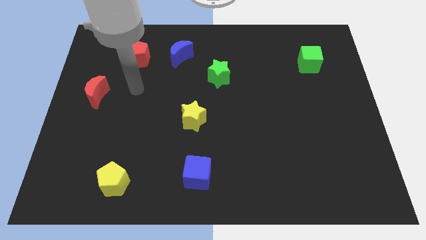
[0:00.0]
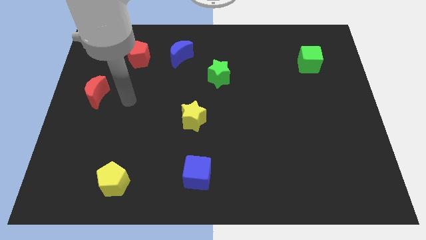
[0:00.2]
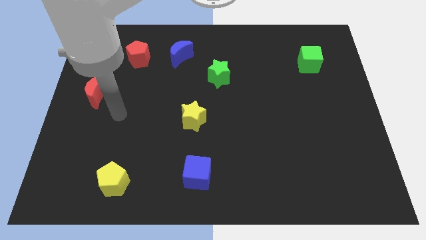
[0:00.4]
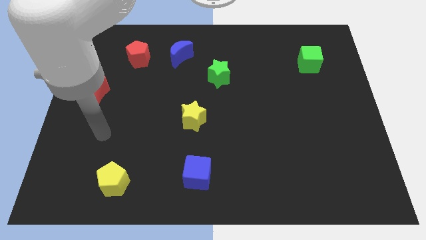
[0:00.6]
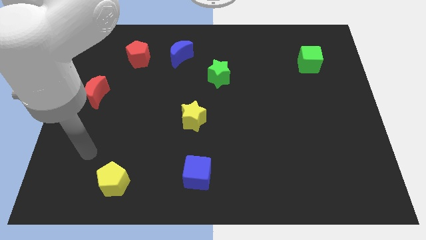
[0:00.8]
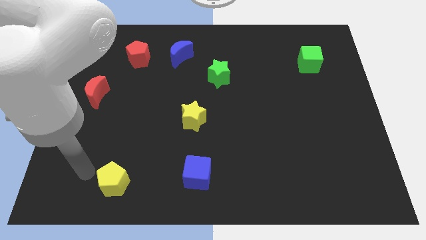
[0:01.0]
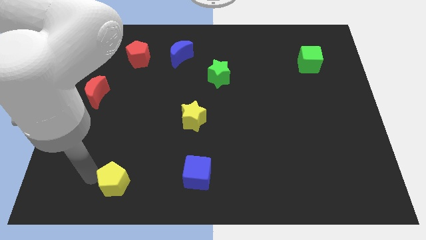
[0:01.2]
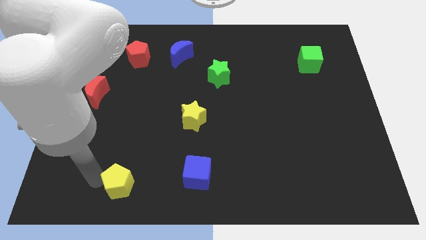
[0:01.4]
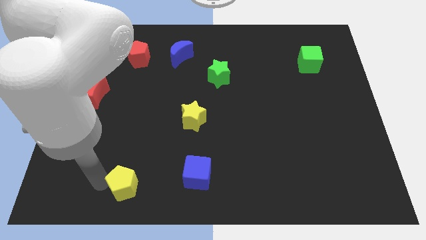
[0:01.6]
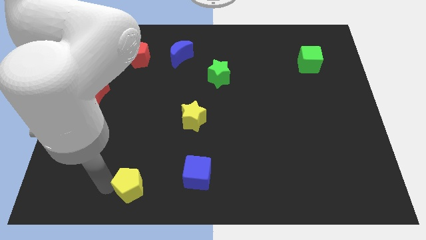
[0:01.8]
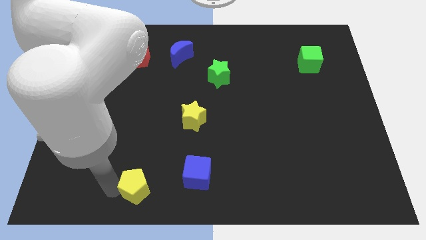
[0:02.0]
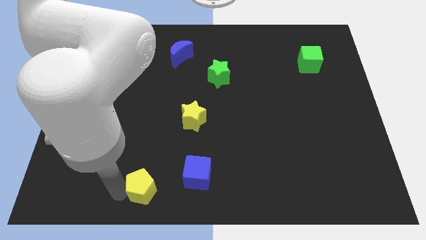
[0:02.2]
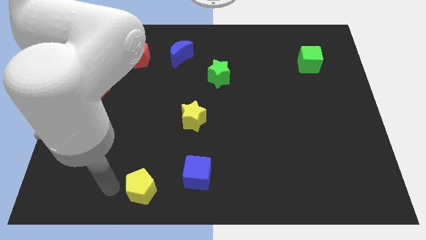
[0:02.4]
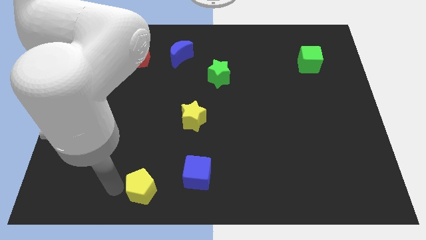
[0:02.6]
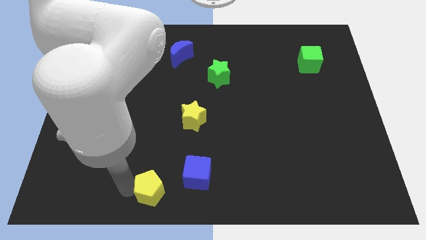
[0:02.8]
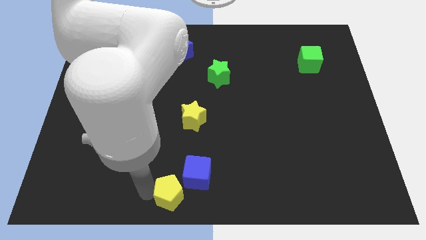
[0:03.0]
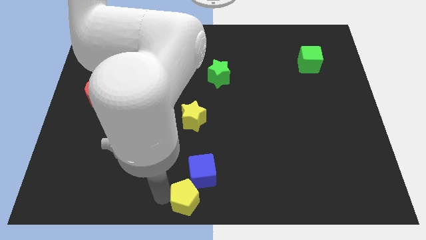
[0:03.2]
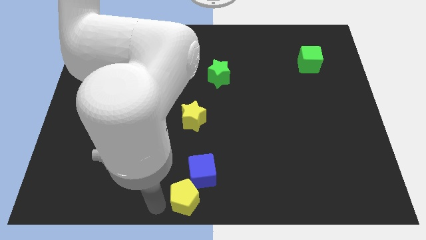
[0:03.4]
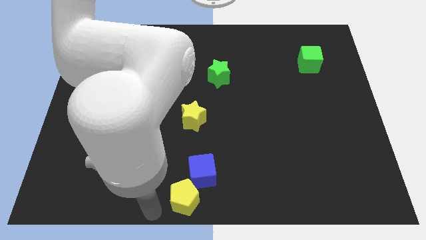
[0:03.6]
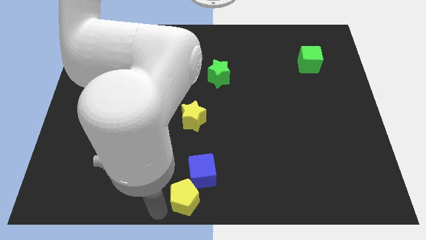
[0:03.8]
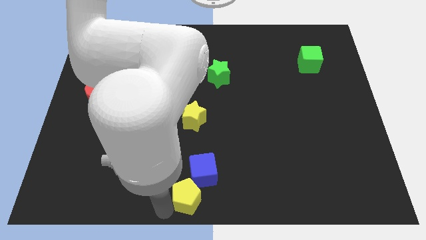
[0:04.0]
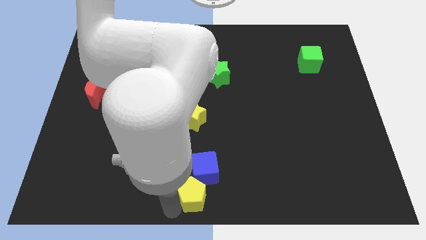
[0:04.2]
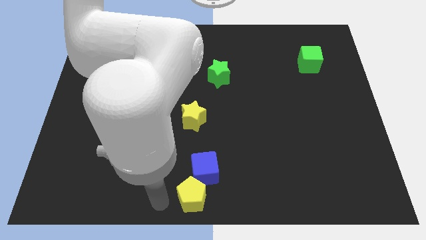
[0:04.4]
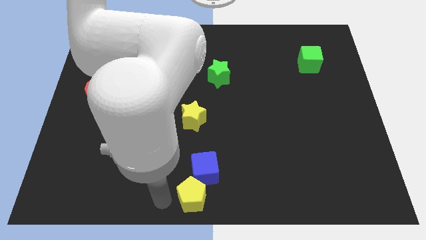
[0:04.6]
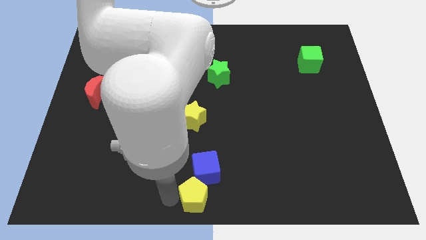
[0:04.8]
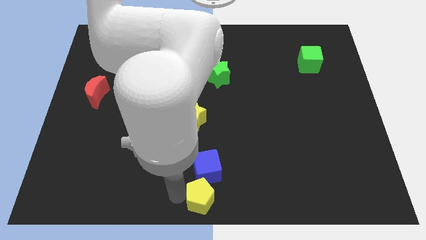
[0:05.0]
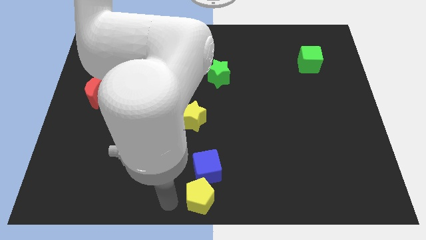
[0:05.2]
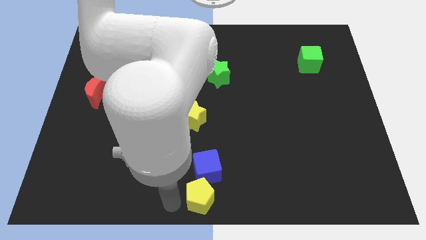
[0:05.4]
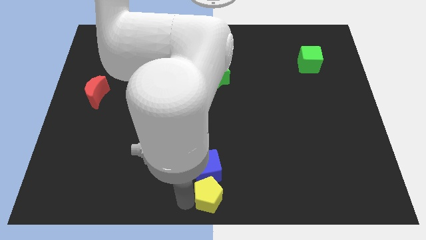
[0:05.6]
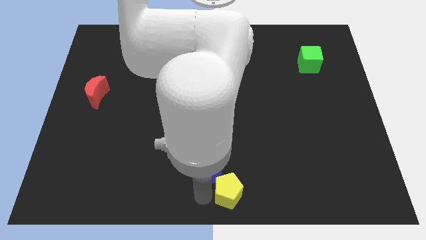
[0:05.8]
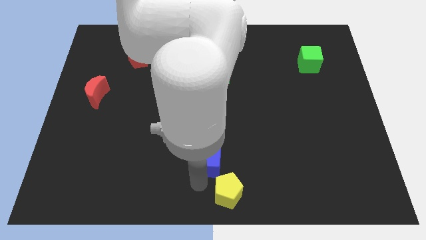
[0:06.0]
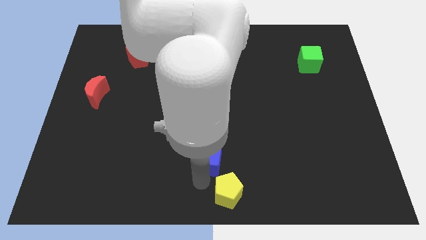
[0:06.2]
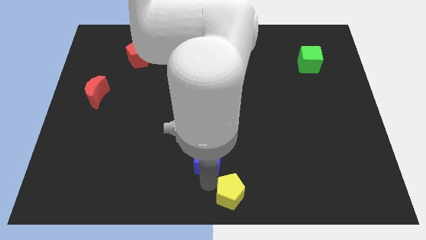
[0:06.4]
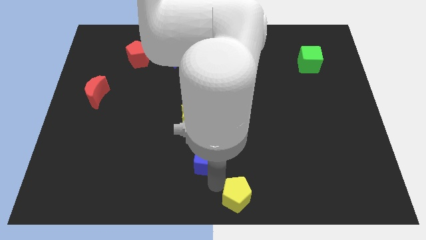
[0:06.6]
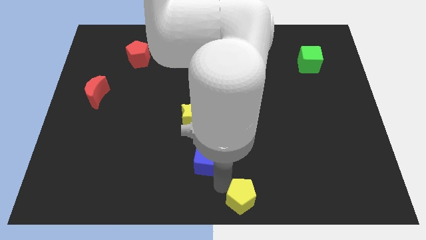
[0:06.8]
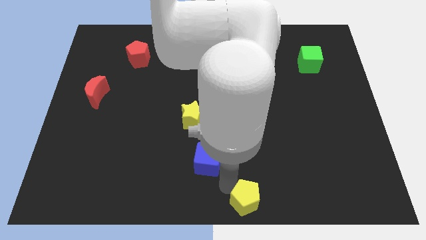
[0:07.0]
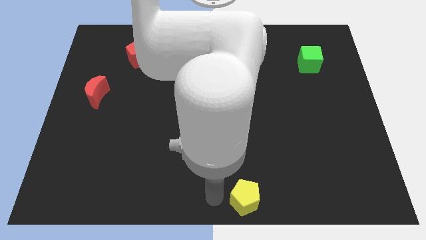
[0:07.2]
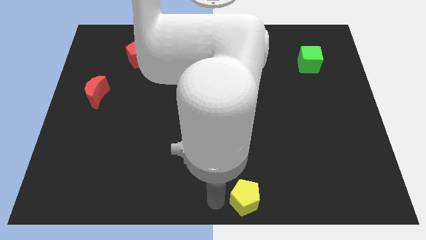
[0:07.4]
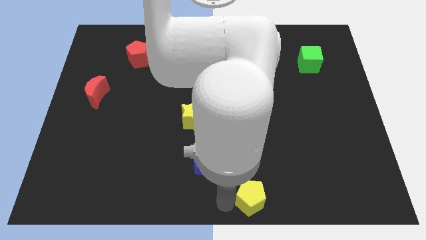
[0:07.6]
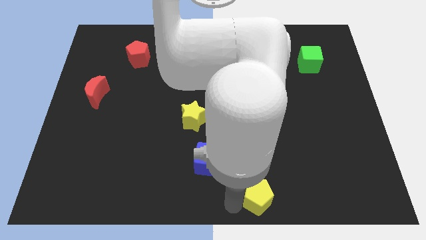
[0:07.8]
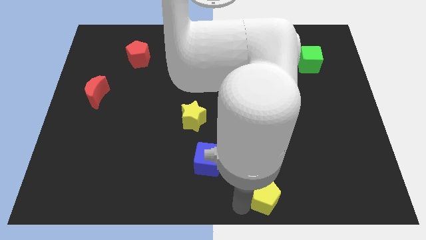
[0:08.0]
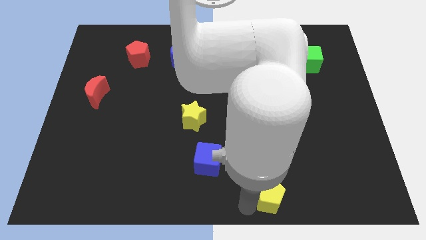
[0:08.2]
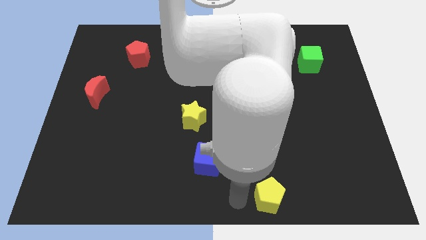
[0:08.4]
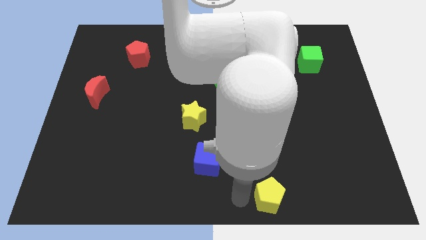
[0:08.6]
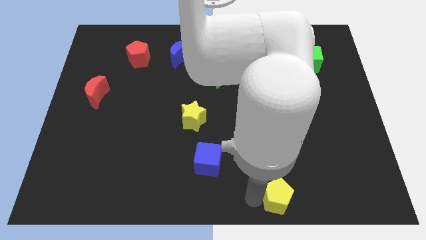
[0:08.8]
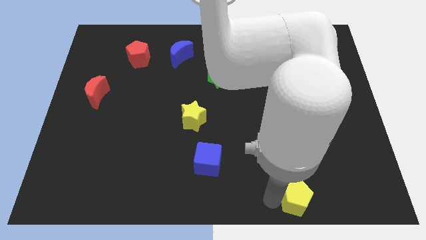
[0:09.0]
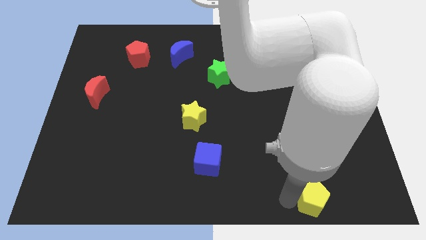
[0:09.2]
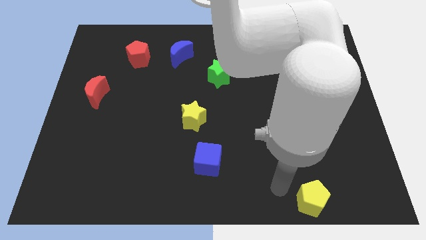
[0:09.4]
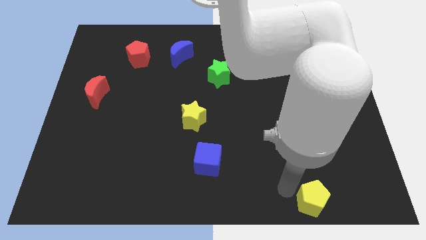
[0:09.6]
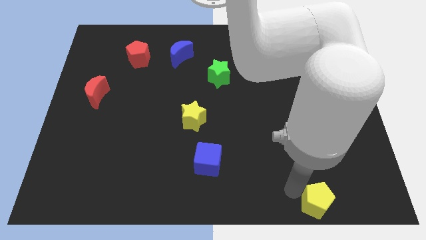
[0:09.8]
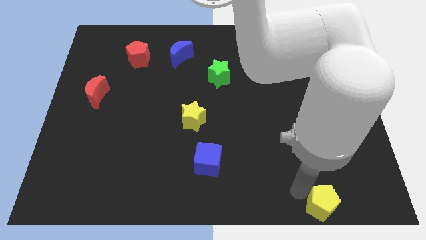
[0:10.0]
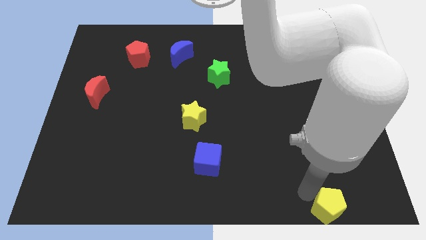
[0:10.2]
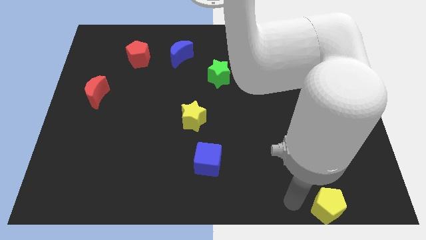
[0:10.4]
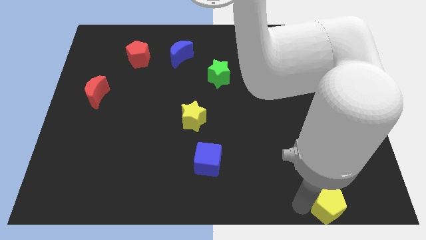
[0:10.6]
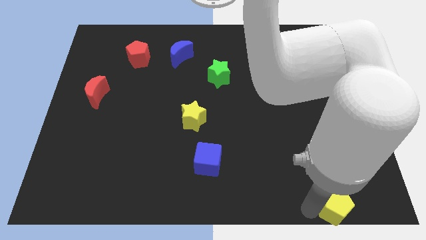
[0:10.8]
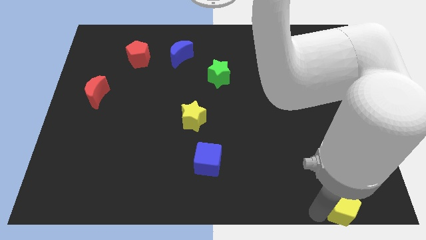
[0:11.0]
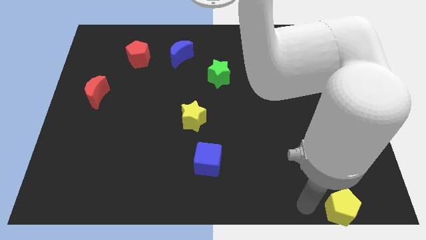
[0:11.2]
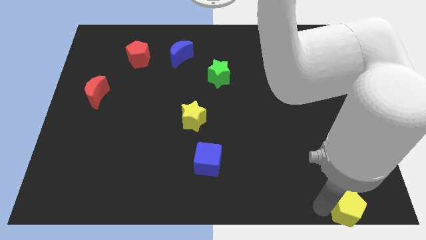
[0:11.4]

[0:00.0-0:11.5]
put the yellow pentagon to the bottom right corner
